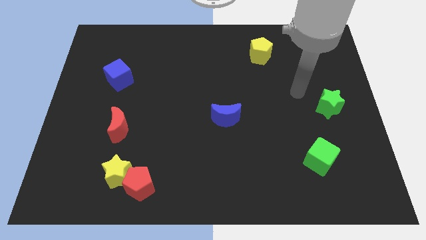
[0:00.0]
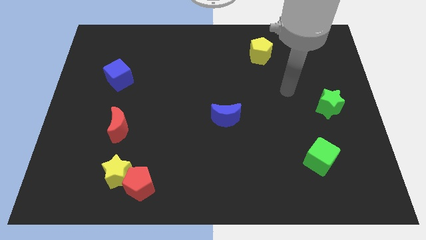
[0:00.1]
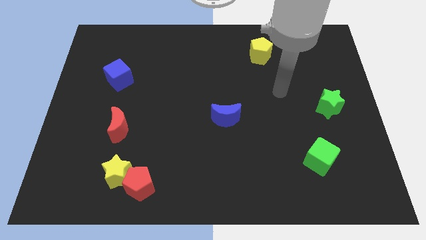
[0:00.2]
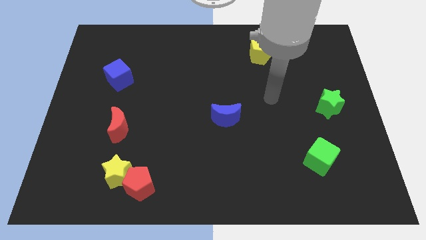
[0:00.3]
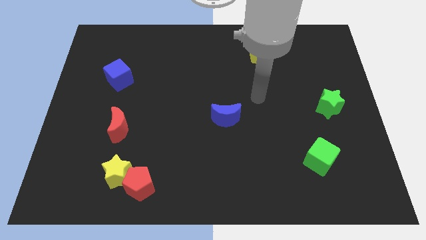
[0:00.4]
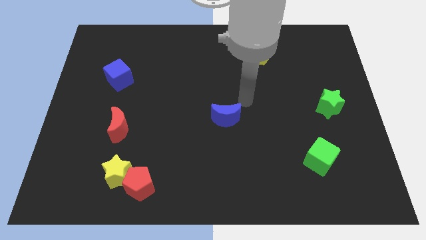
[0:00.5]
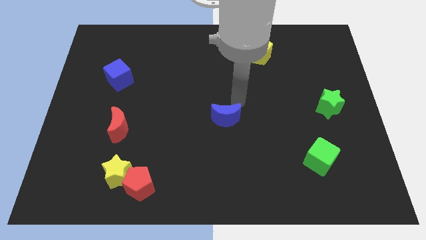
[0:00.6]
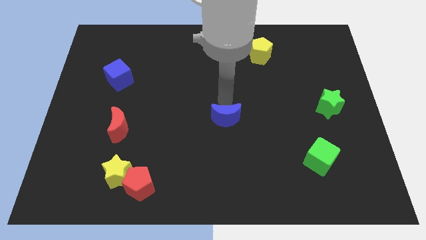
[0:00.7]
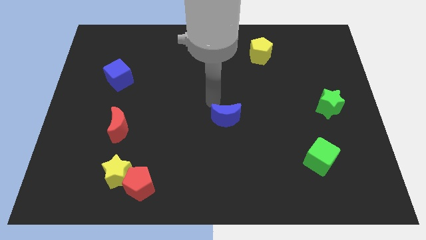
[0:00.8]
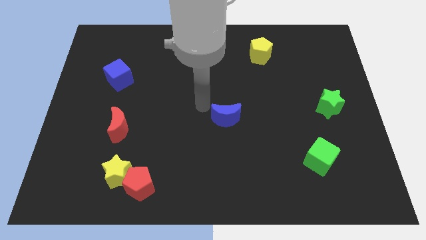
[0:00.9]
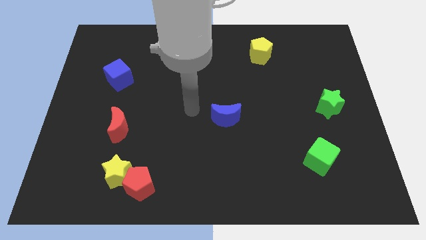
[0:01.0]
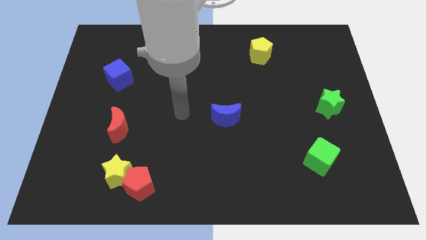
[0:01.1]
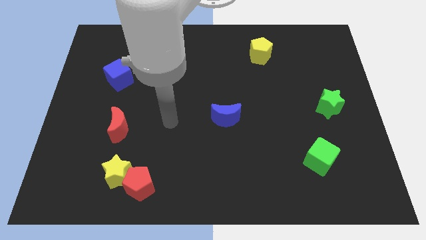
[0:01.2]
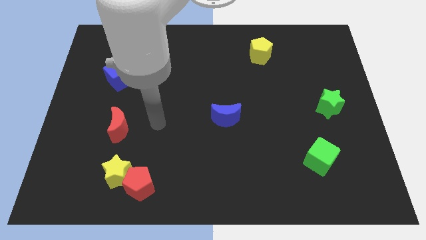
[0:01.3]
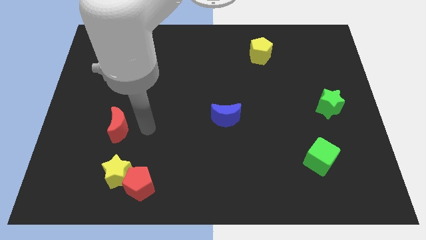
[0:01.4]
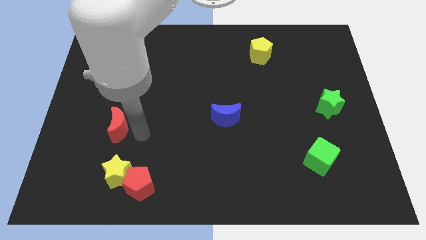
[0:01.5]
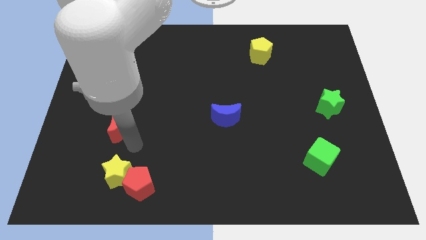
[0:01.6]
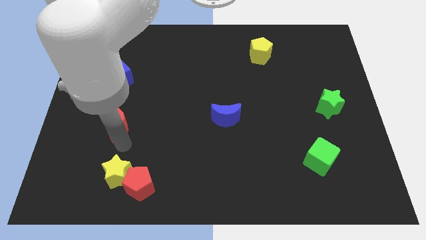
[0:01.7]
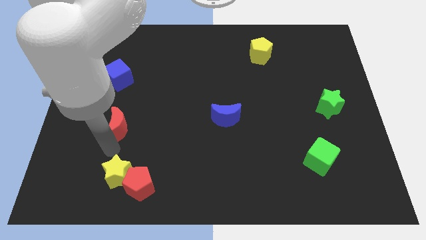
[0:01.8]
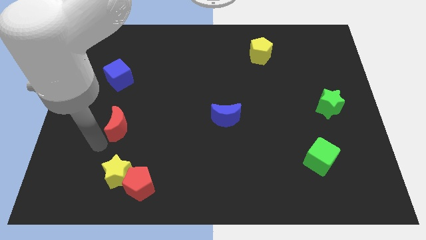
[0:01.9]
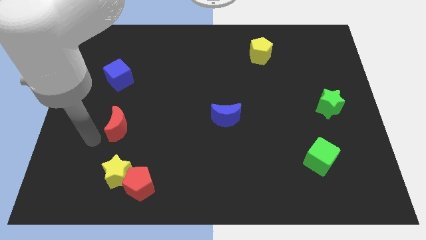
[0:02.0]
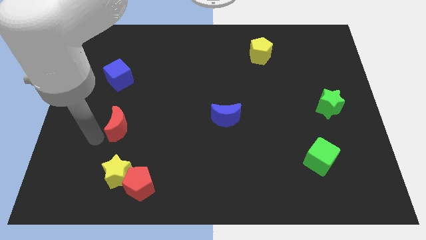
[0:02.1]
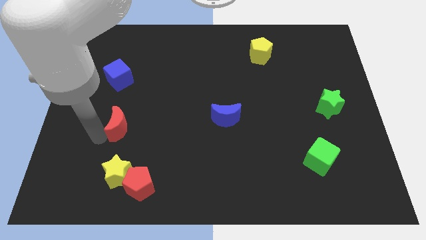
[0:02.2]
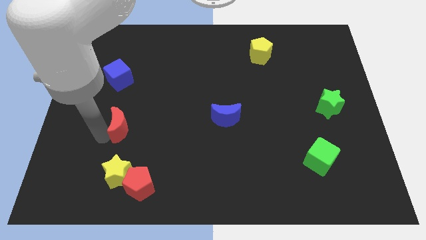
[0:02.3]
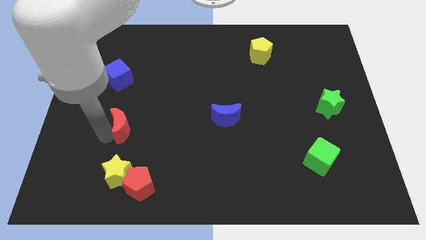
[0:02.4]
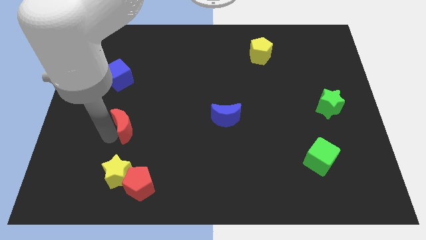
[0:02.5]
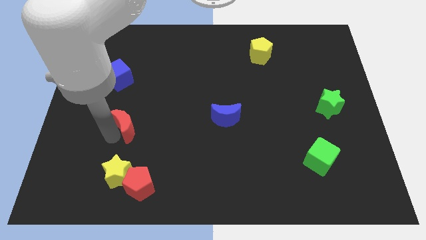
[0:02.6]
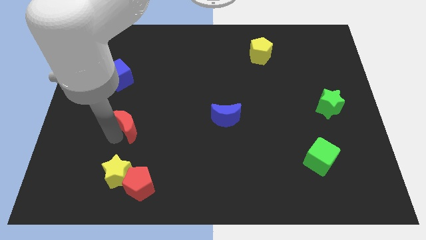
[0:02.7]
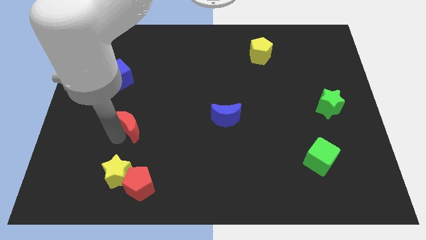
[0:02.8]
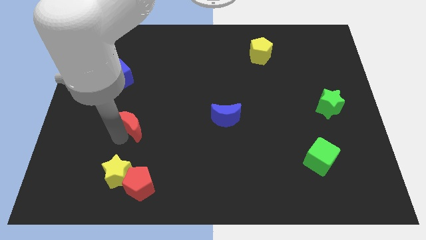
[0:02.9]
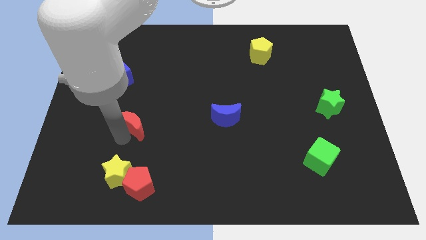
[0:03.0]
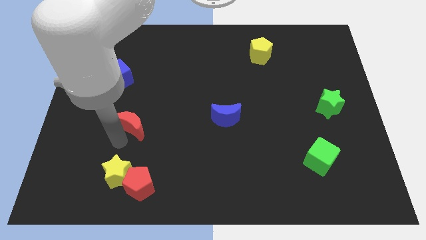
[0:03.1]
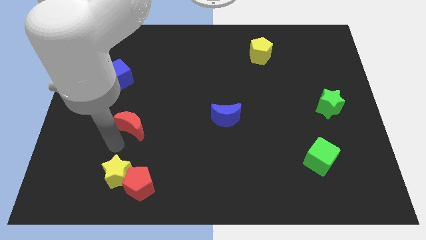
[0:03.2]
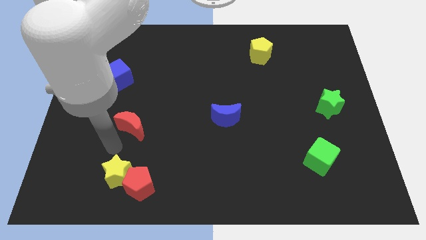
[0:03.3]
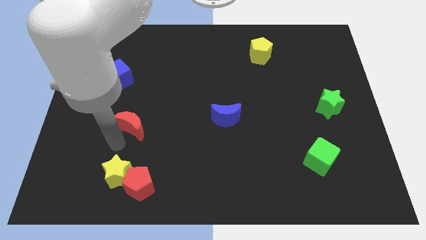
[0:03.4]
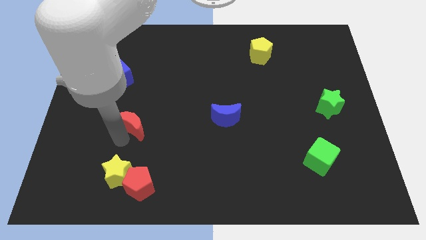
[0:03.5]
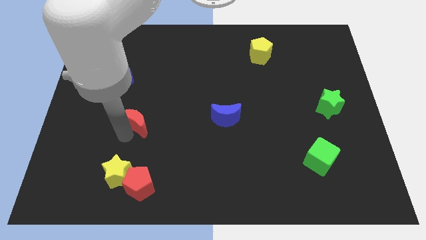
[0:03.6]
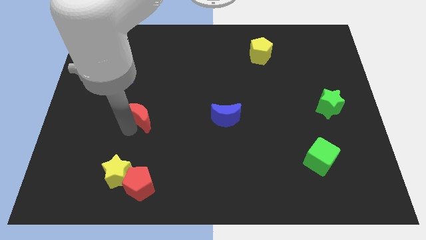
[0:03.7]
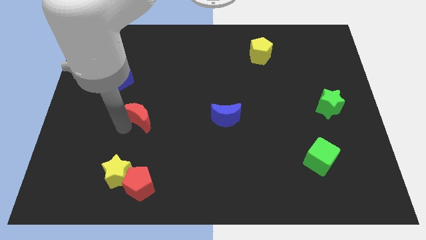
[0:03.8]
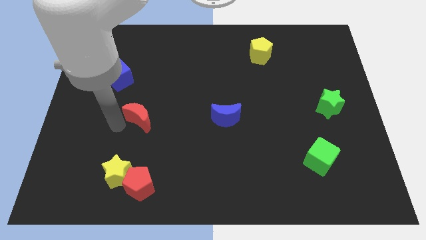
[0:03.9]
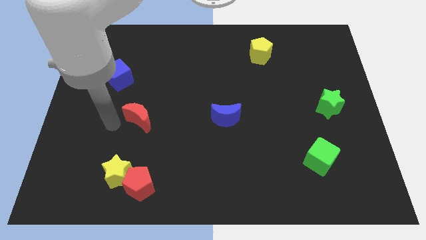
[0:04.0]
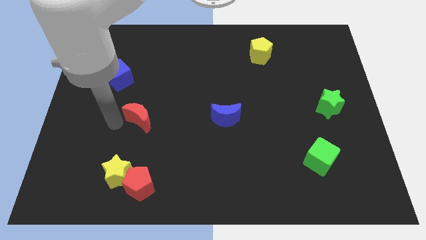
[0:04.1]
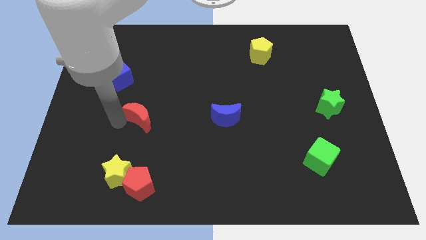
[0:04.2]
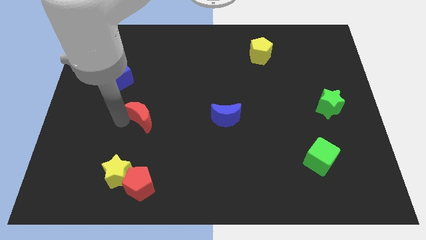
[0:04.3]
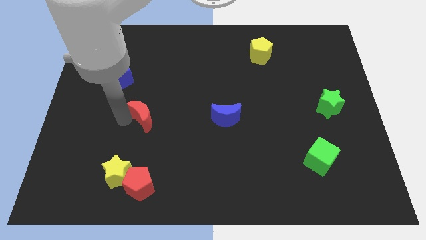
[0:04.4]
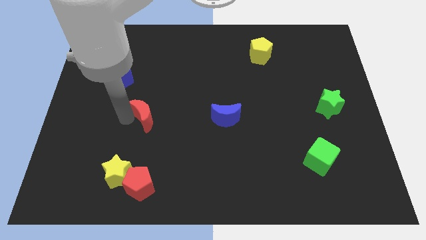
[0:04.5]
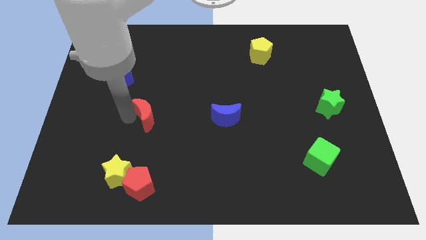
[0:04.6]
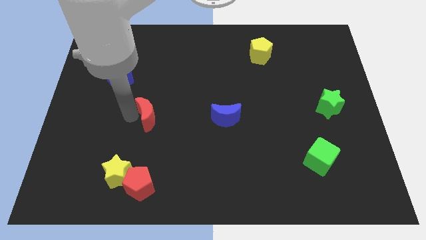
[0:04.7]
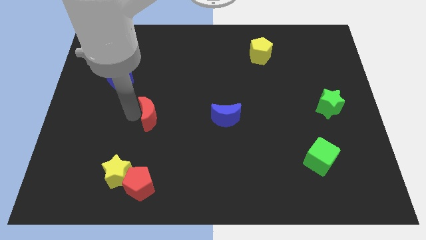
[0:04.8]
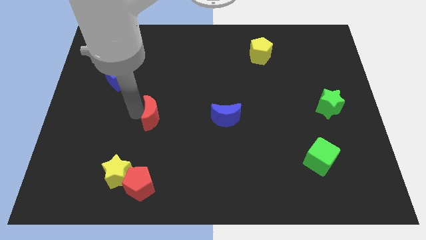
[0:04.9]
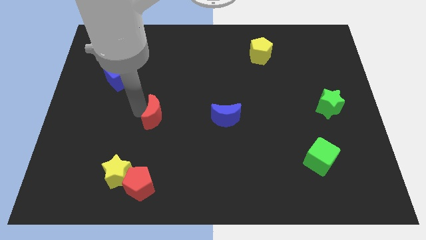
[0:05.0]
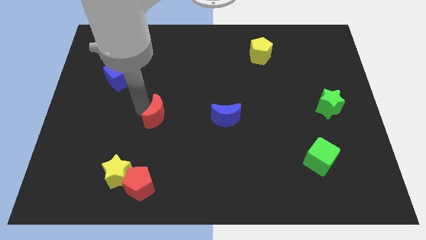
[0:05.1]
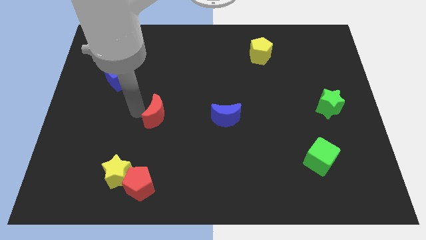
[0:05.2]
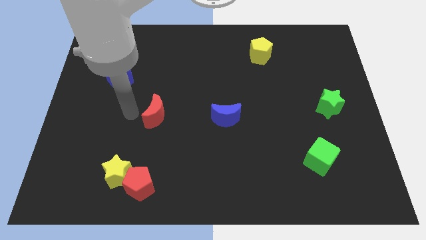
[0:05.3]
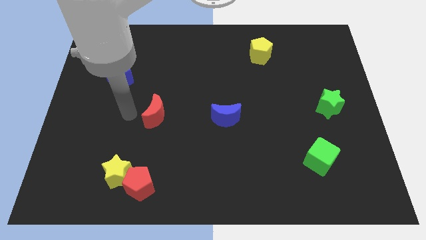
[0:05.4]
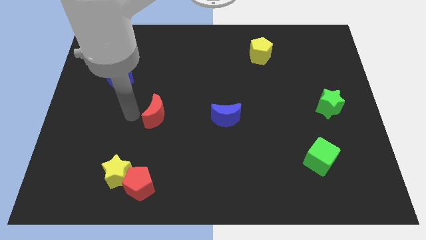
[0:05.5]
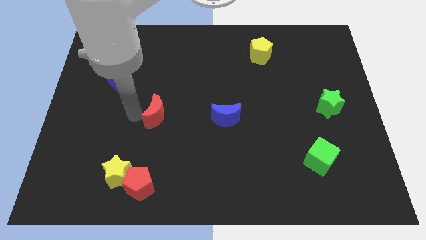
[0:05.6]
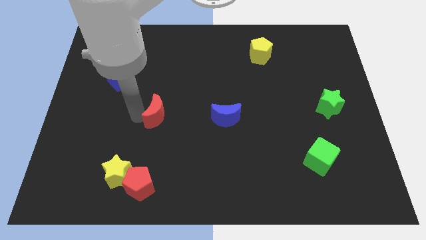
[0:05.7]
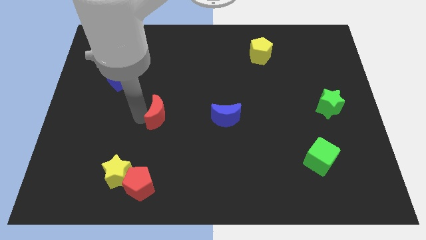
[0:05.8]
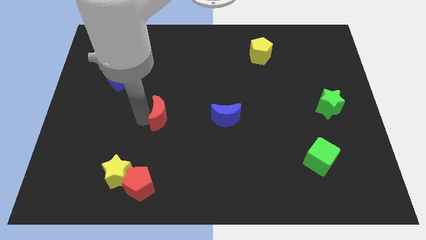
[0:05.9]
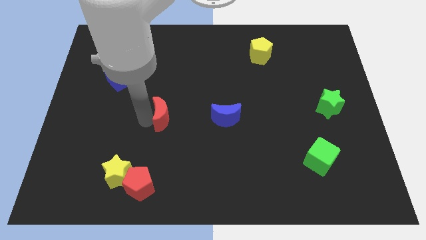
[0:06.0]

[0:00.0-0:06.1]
slide the red moon to the middle of the board

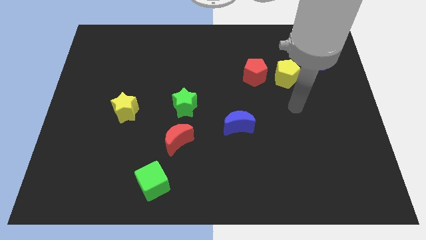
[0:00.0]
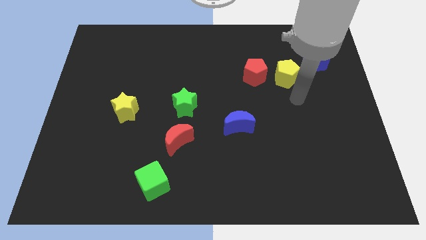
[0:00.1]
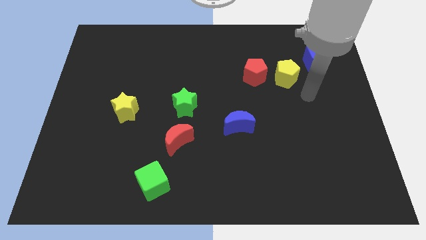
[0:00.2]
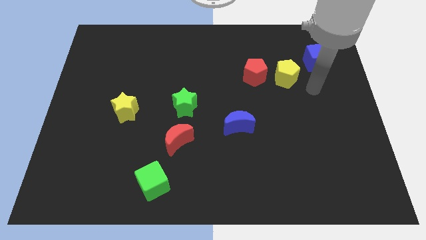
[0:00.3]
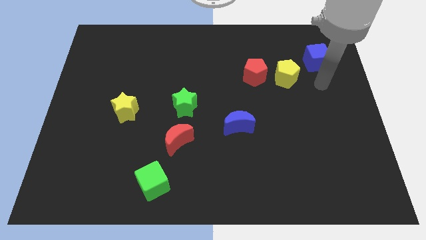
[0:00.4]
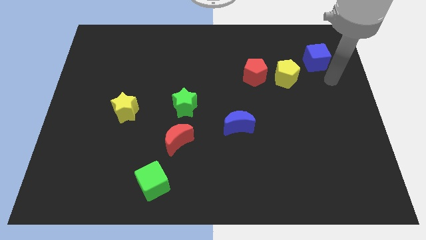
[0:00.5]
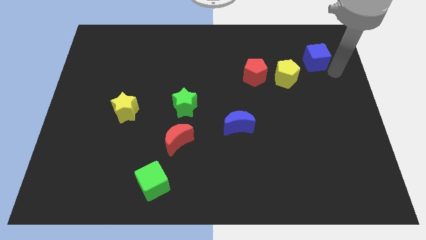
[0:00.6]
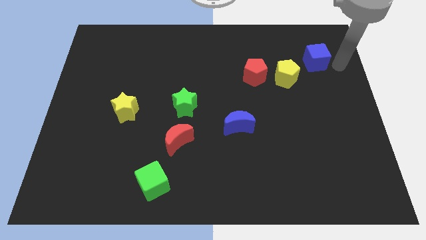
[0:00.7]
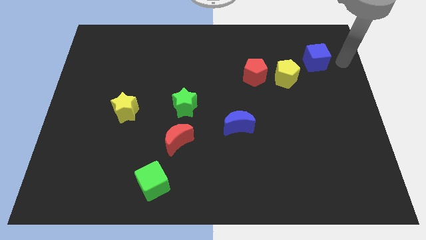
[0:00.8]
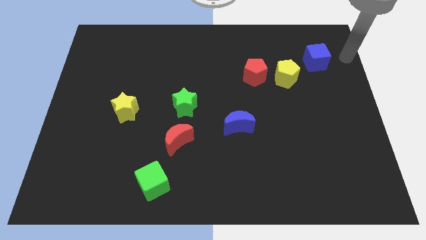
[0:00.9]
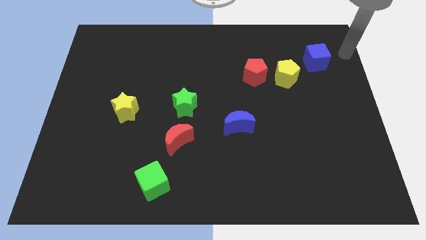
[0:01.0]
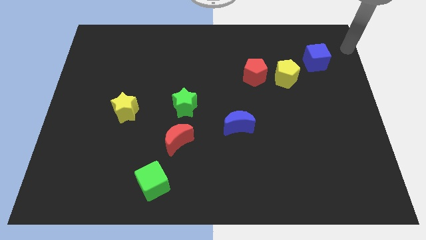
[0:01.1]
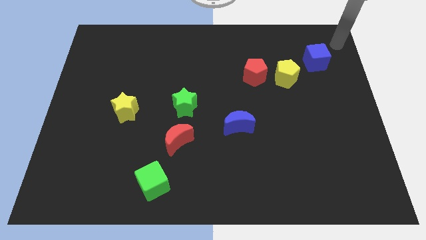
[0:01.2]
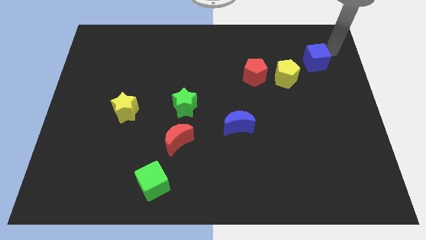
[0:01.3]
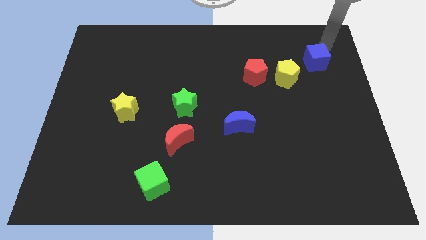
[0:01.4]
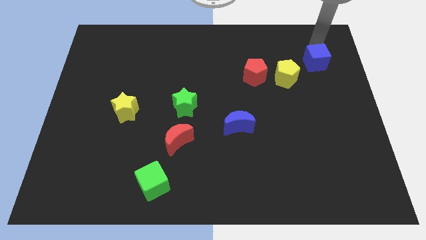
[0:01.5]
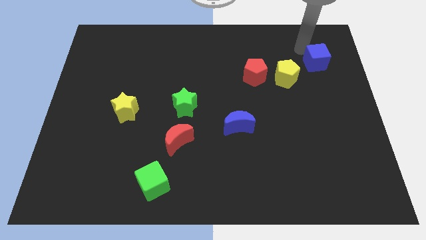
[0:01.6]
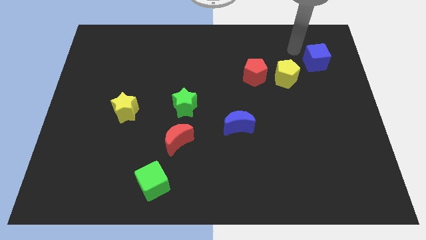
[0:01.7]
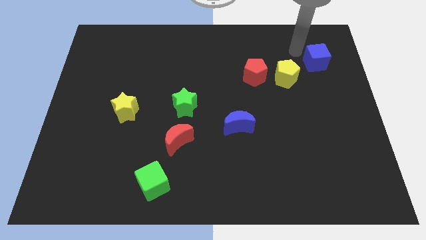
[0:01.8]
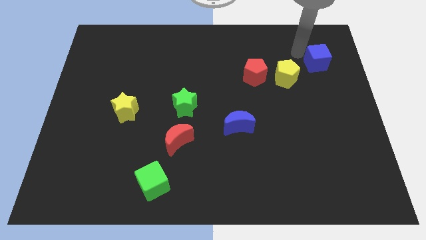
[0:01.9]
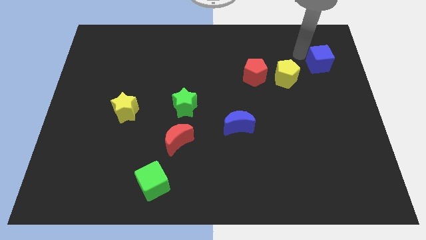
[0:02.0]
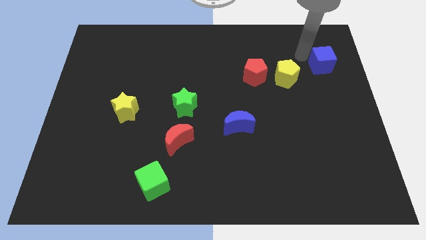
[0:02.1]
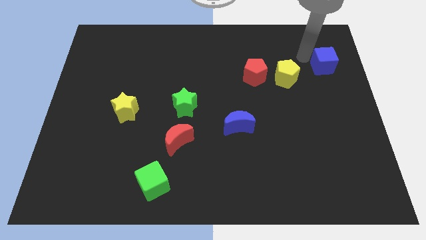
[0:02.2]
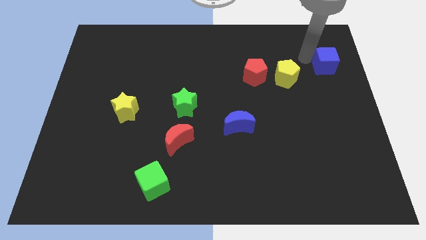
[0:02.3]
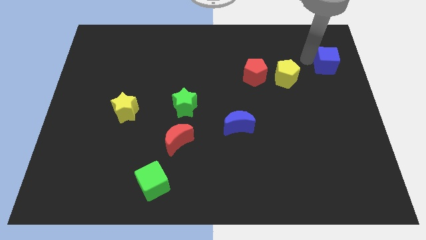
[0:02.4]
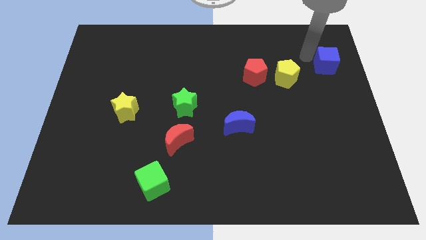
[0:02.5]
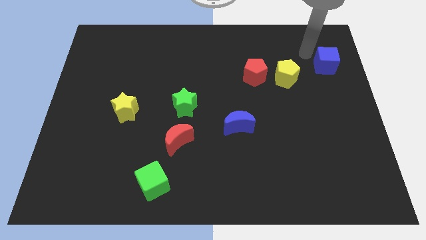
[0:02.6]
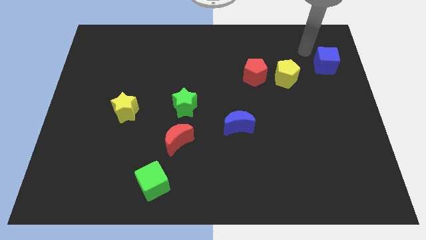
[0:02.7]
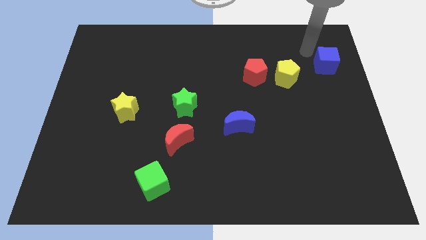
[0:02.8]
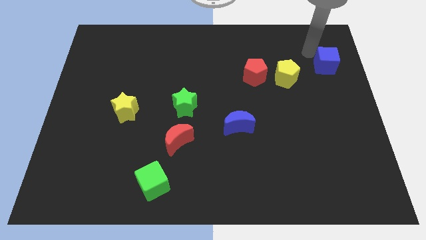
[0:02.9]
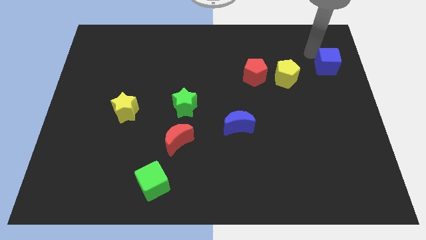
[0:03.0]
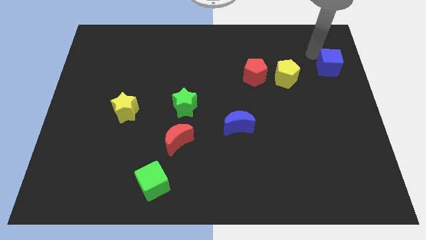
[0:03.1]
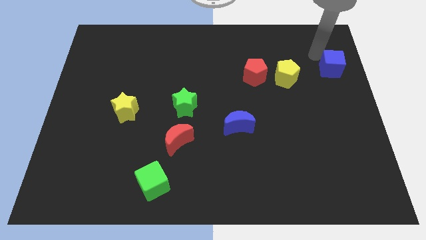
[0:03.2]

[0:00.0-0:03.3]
slide the blue cube to the center right
